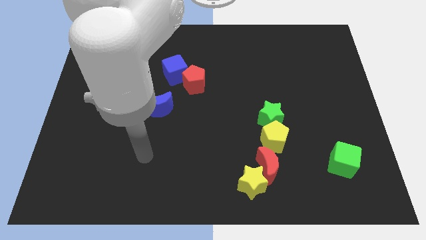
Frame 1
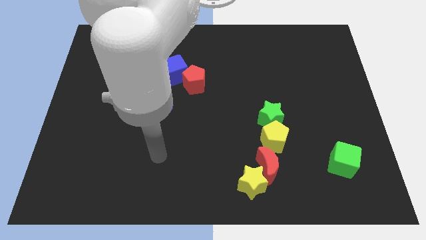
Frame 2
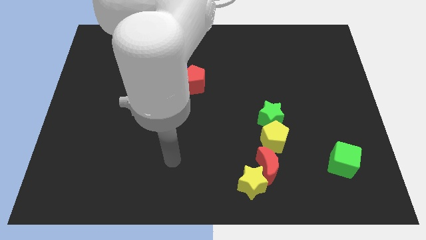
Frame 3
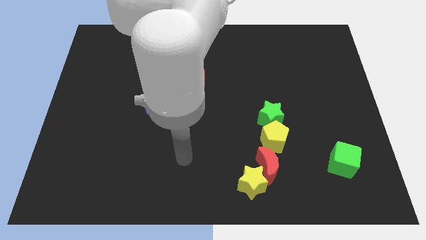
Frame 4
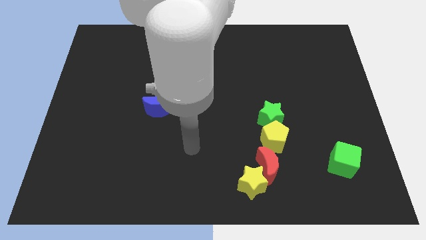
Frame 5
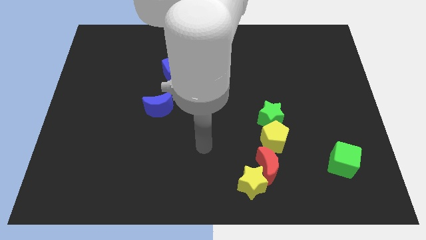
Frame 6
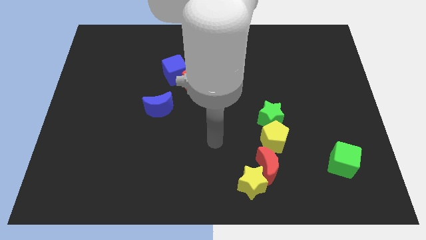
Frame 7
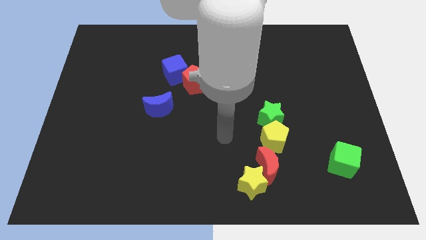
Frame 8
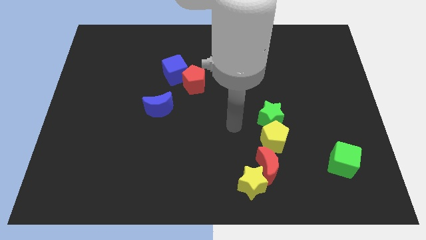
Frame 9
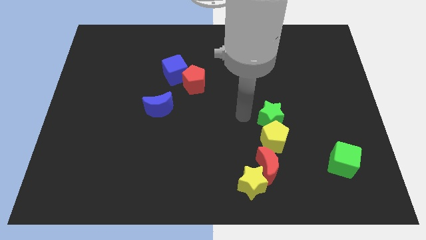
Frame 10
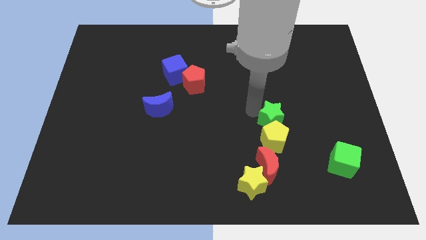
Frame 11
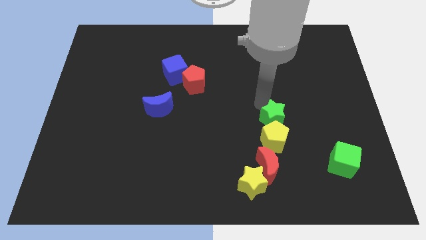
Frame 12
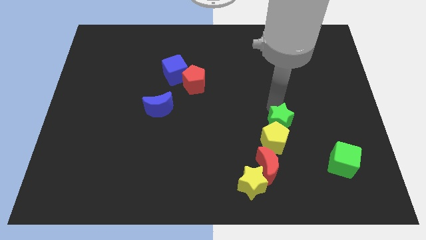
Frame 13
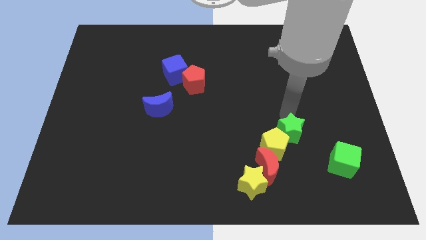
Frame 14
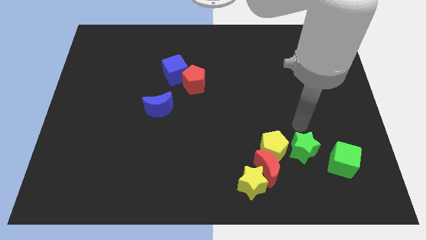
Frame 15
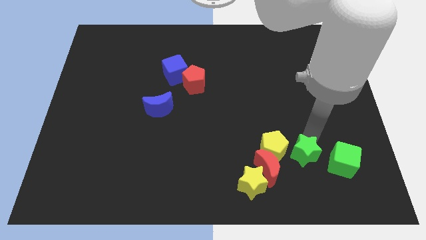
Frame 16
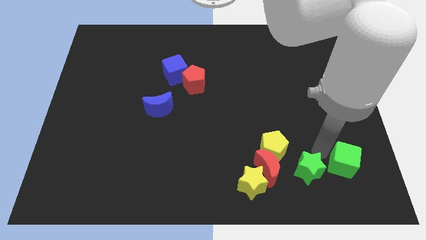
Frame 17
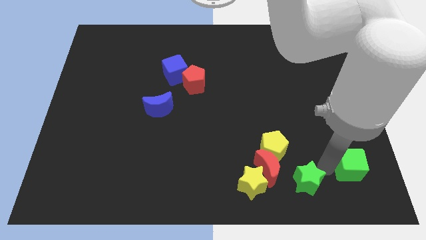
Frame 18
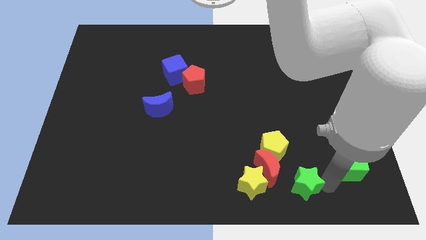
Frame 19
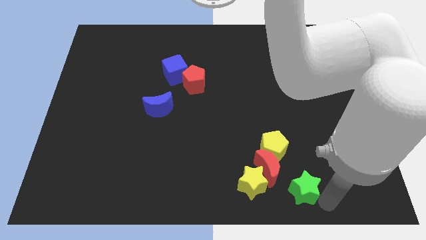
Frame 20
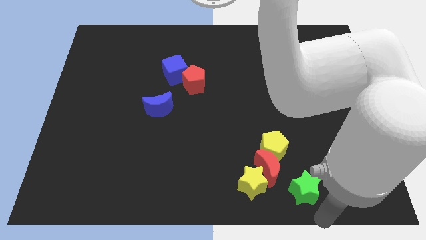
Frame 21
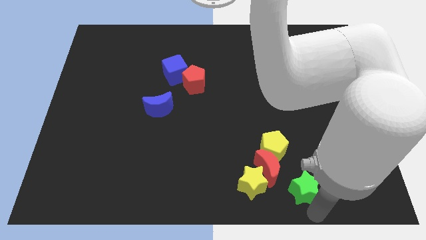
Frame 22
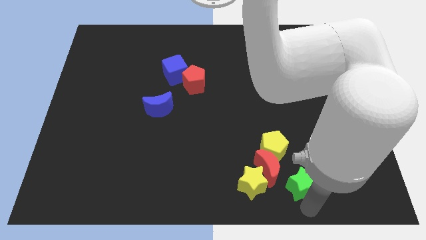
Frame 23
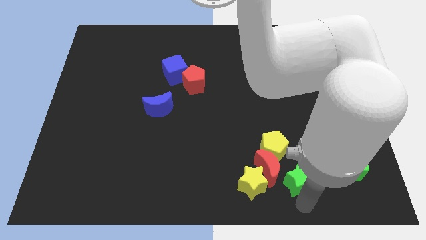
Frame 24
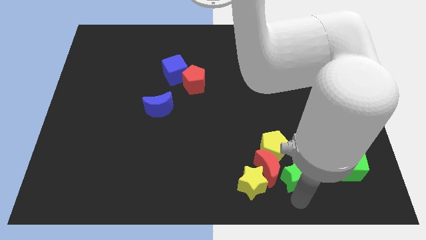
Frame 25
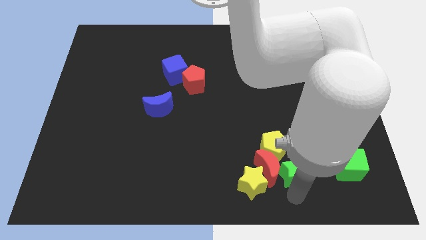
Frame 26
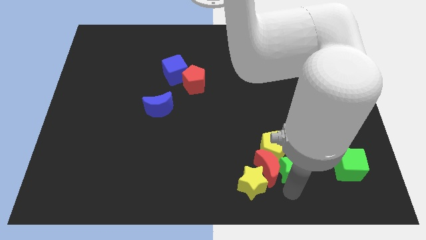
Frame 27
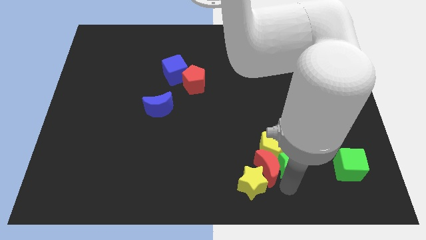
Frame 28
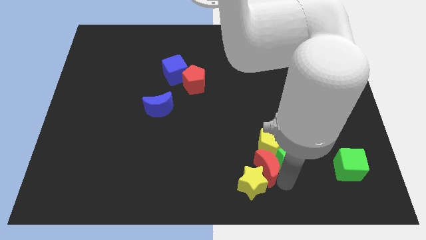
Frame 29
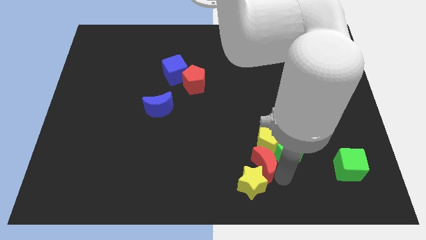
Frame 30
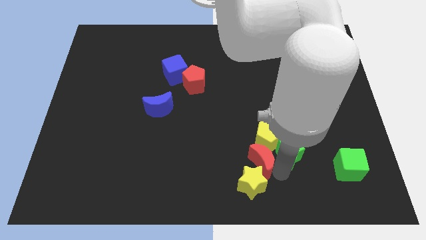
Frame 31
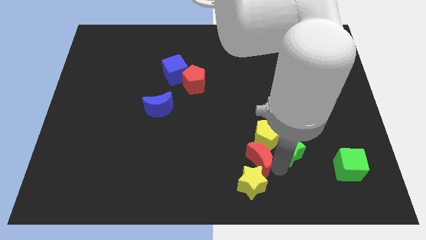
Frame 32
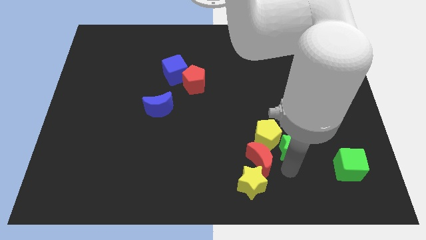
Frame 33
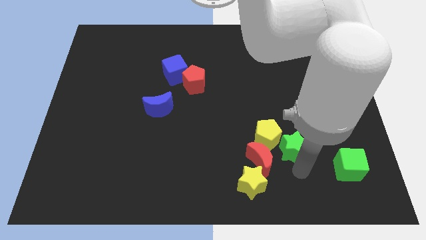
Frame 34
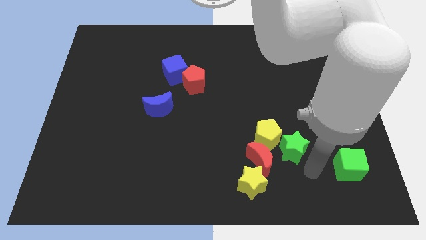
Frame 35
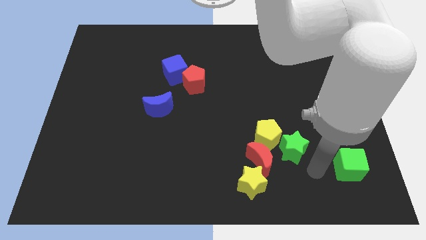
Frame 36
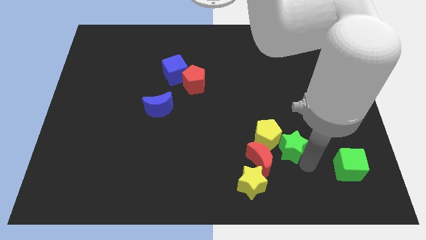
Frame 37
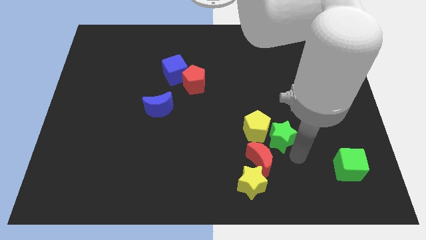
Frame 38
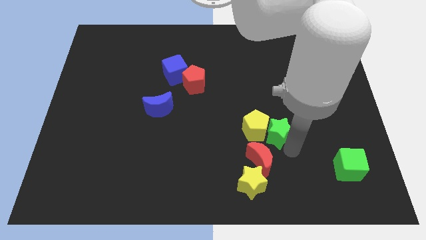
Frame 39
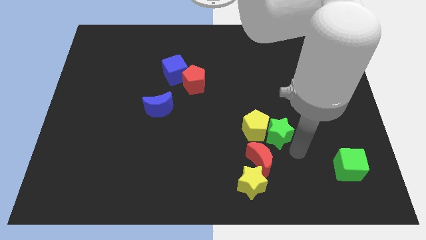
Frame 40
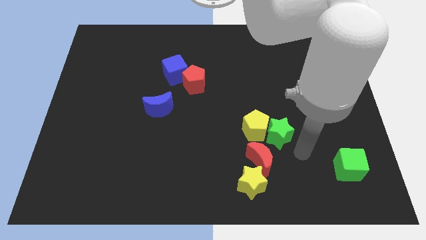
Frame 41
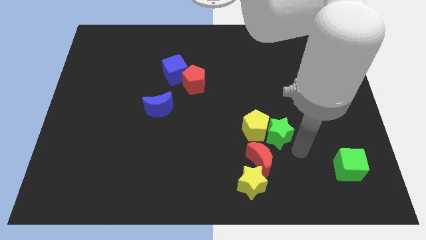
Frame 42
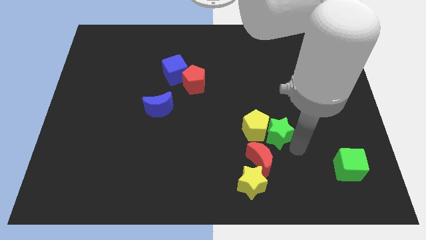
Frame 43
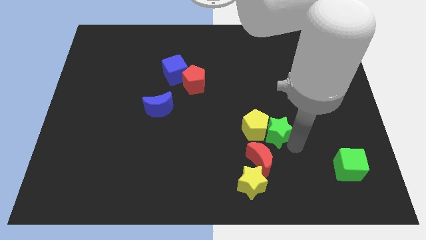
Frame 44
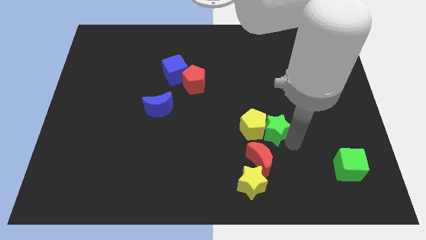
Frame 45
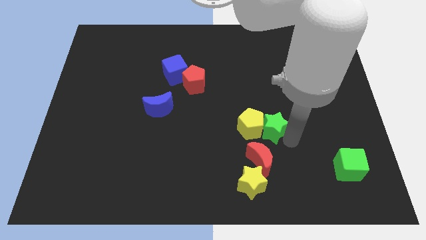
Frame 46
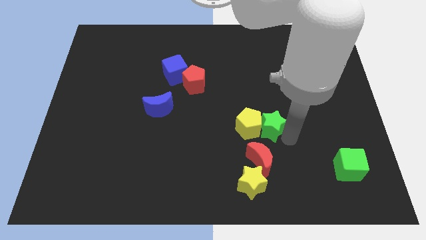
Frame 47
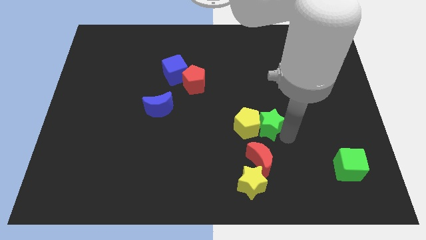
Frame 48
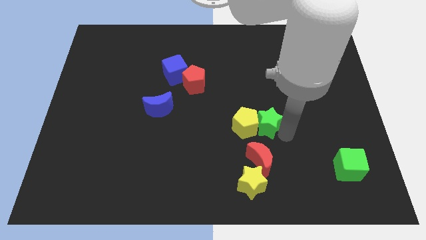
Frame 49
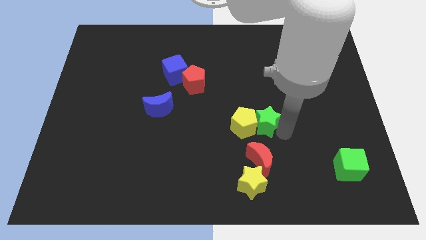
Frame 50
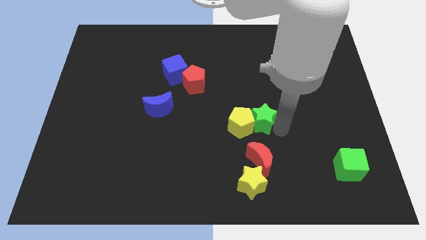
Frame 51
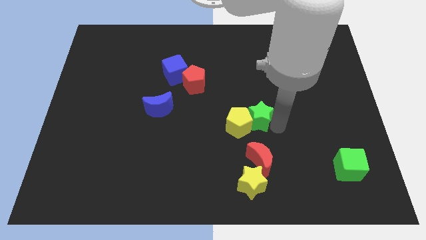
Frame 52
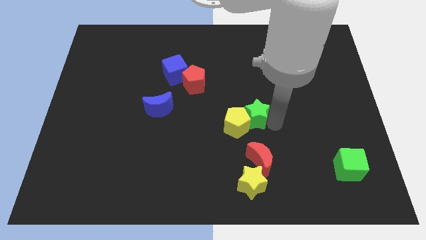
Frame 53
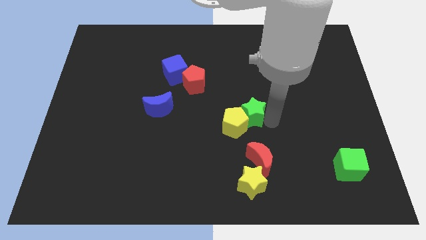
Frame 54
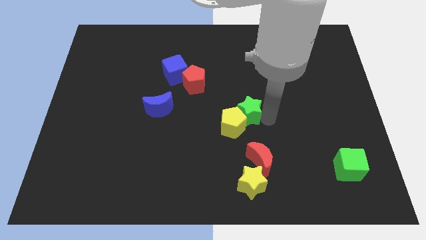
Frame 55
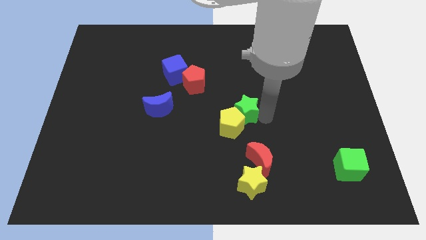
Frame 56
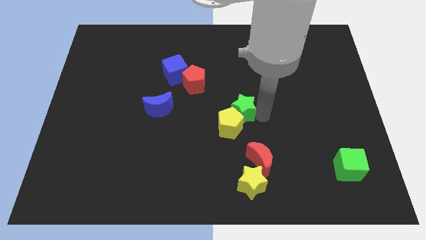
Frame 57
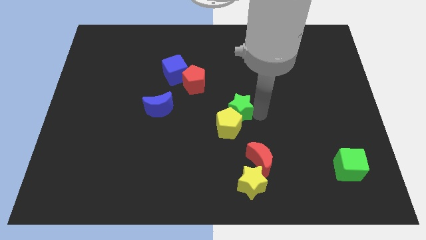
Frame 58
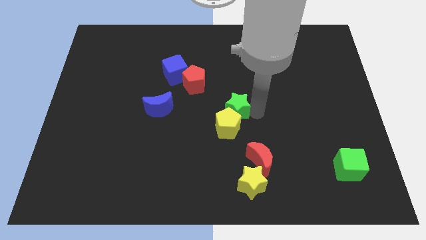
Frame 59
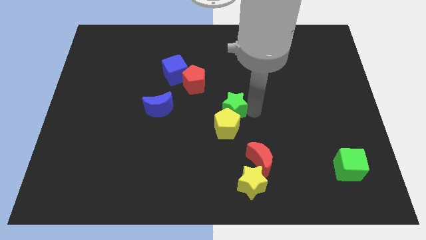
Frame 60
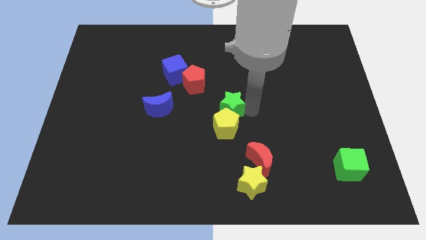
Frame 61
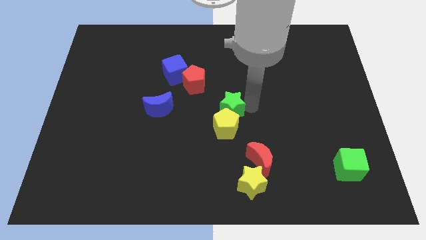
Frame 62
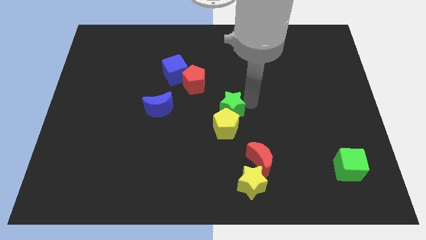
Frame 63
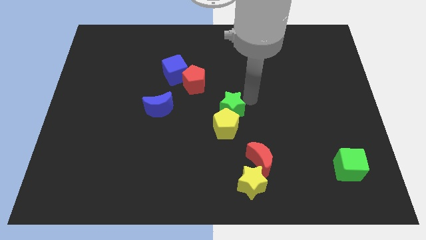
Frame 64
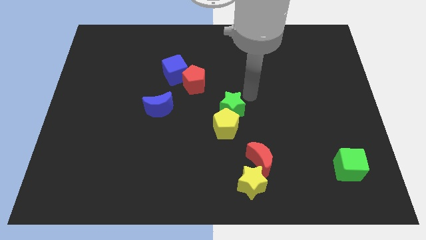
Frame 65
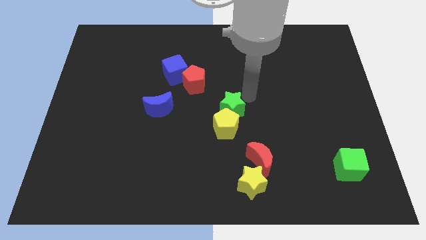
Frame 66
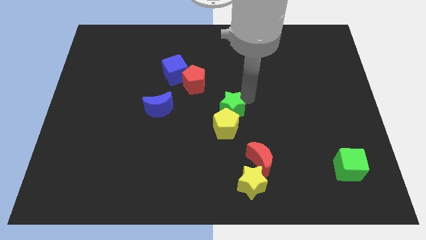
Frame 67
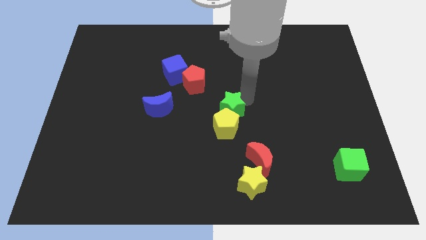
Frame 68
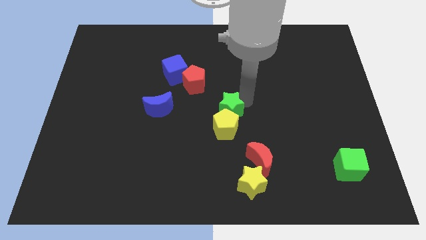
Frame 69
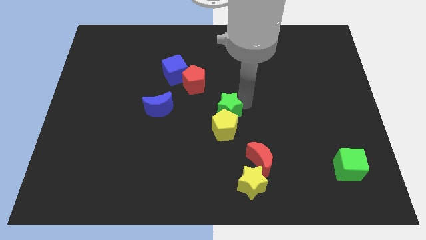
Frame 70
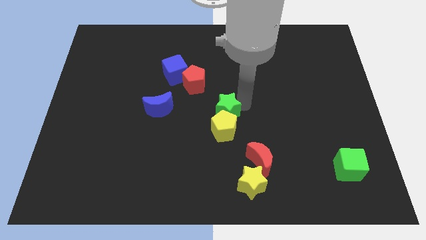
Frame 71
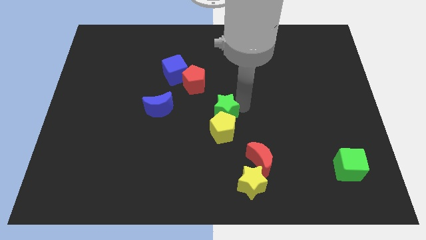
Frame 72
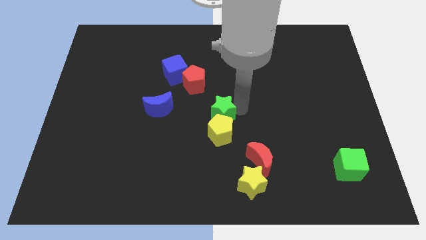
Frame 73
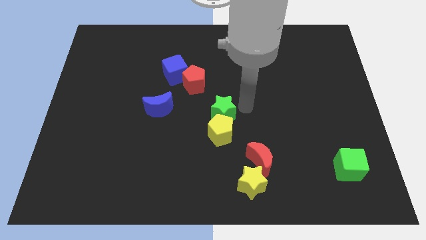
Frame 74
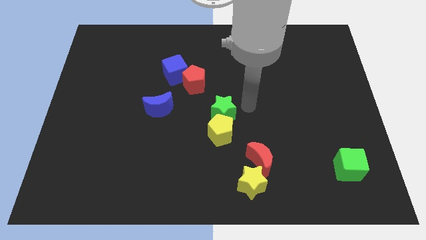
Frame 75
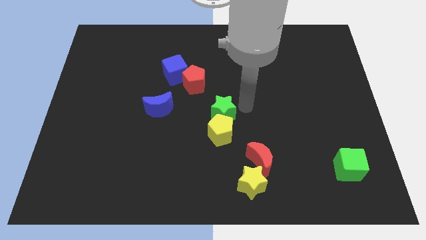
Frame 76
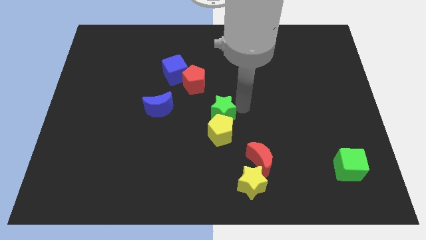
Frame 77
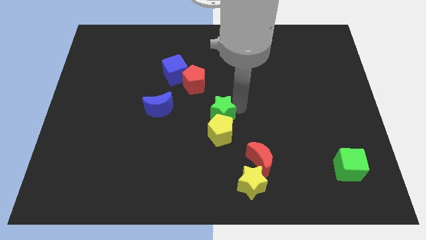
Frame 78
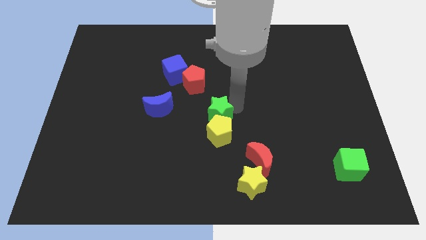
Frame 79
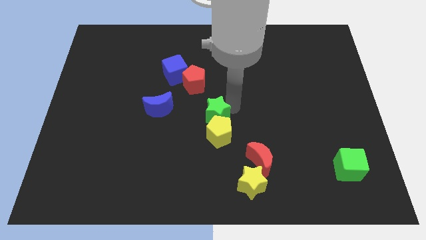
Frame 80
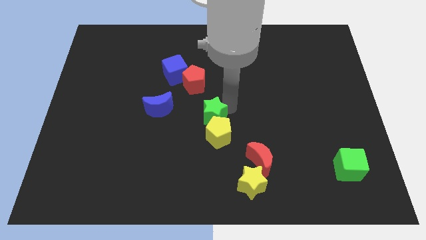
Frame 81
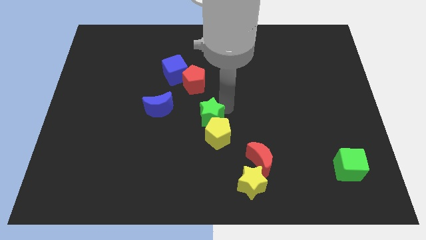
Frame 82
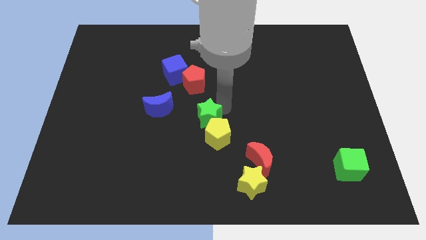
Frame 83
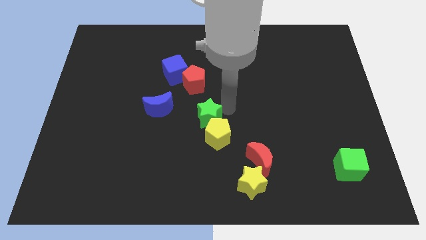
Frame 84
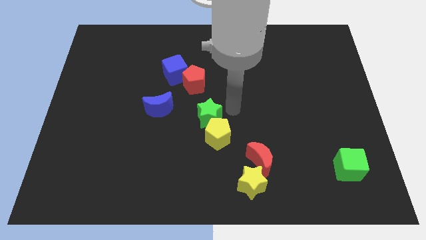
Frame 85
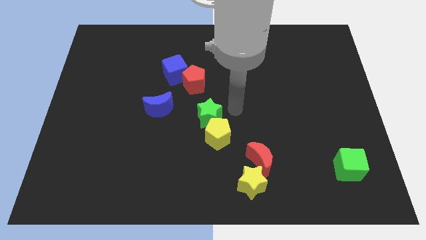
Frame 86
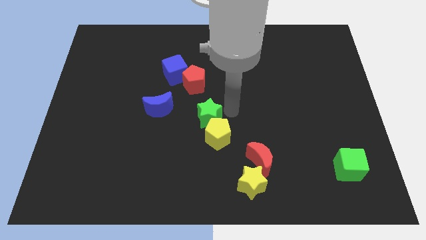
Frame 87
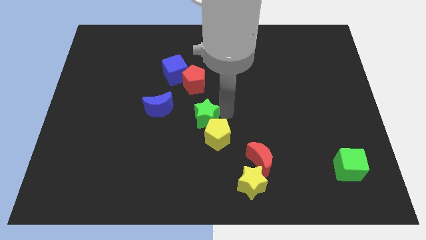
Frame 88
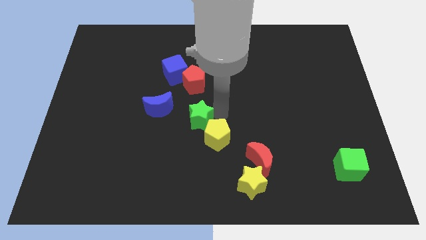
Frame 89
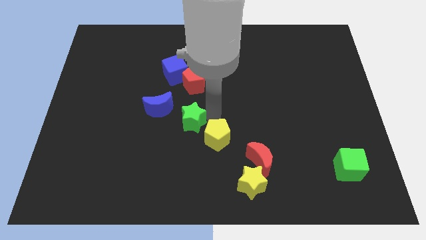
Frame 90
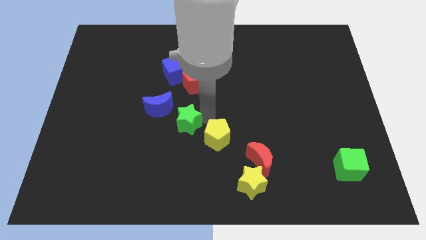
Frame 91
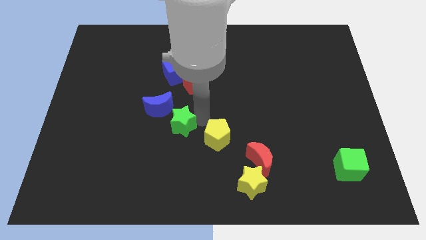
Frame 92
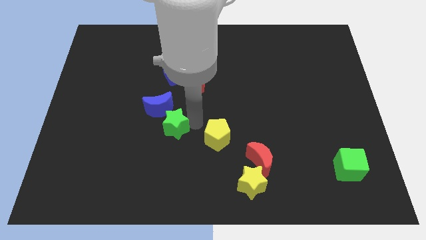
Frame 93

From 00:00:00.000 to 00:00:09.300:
move the green star to the left
